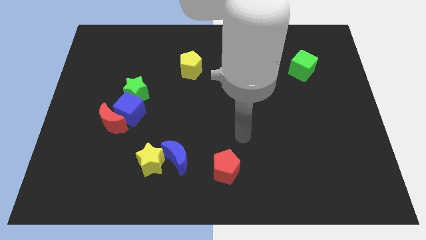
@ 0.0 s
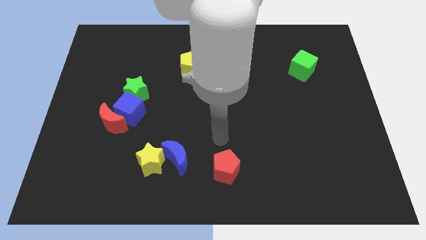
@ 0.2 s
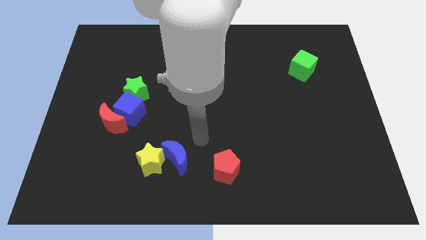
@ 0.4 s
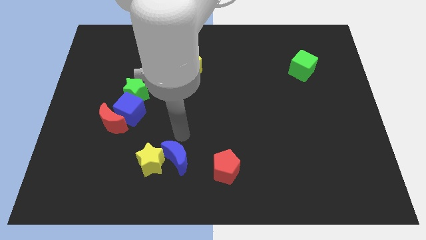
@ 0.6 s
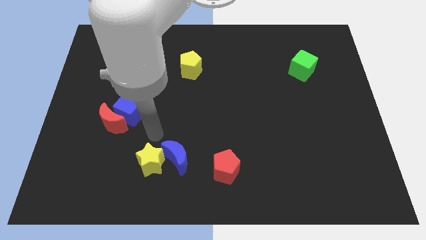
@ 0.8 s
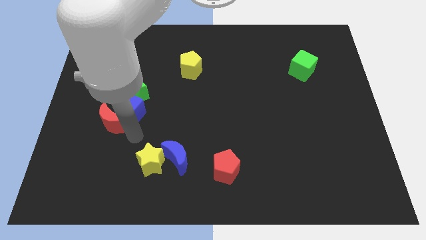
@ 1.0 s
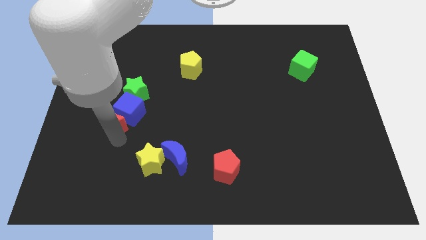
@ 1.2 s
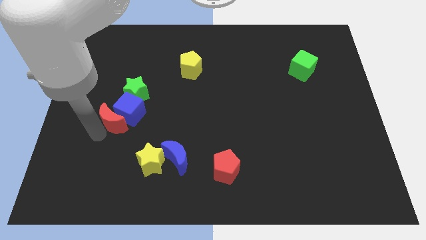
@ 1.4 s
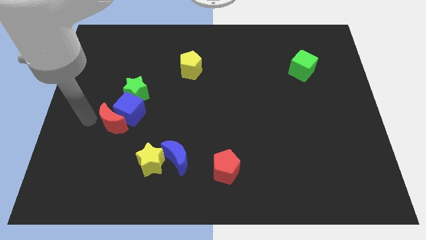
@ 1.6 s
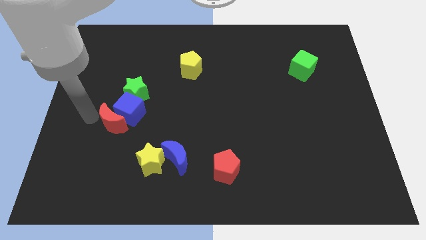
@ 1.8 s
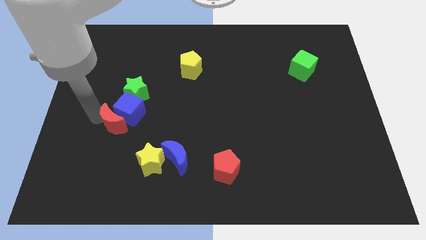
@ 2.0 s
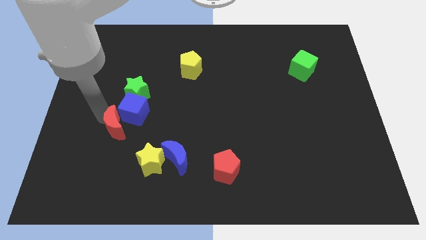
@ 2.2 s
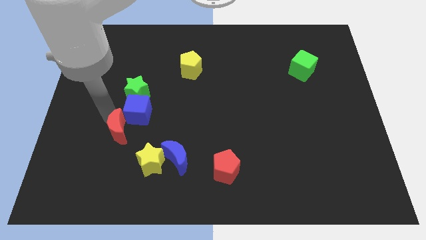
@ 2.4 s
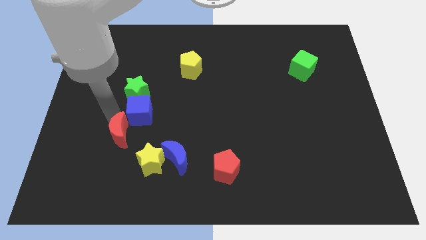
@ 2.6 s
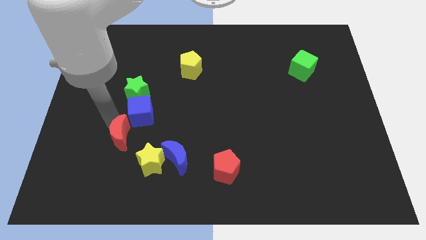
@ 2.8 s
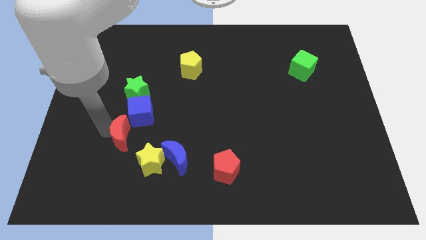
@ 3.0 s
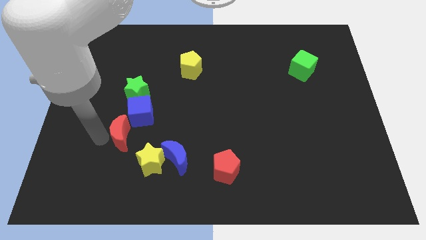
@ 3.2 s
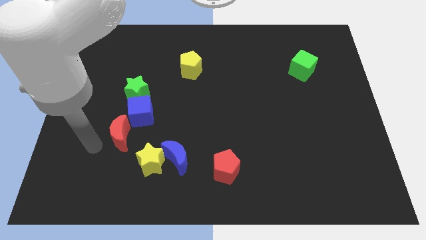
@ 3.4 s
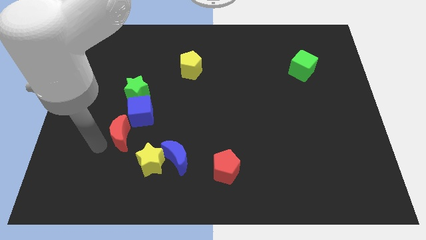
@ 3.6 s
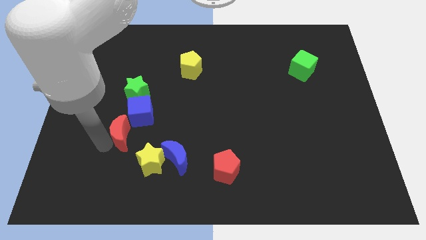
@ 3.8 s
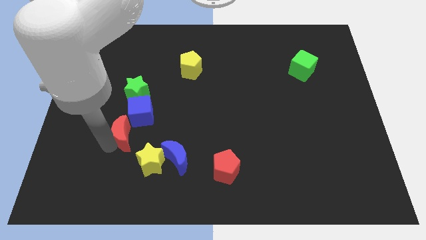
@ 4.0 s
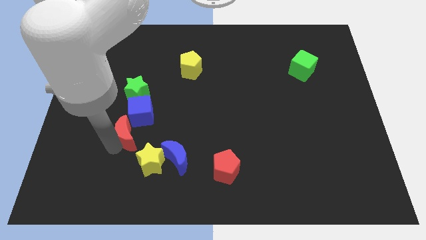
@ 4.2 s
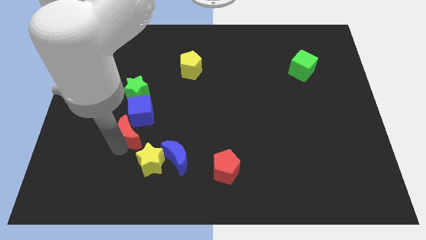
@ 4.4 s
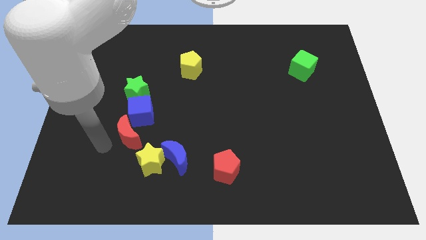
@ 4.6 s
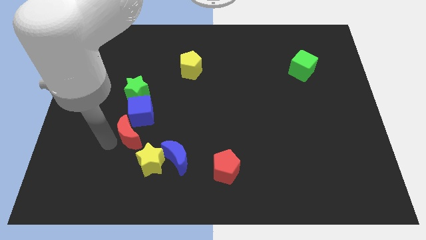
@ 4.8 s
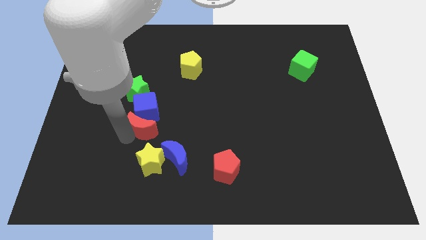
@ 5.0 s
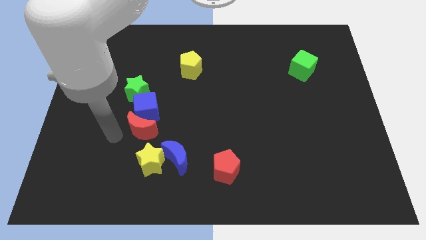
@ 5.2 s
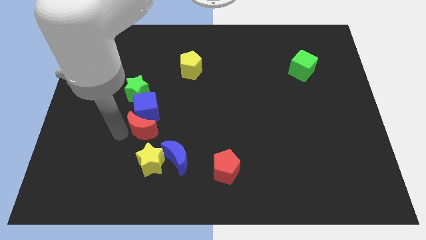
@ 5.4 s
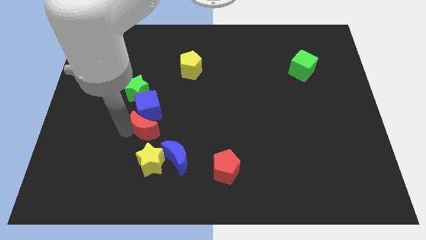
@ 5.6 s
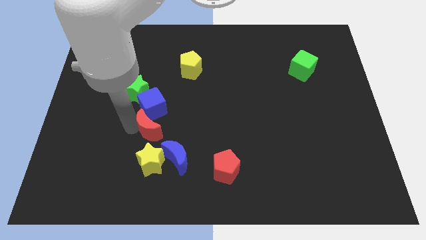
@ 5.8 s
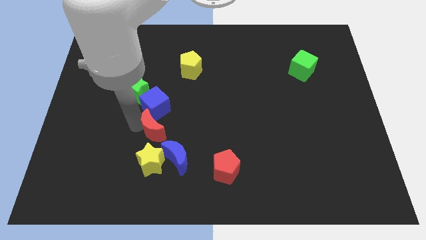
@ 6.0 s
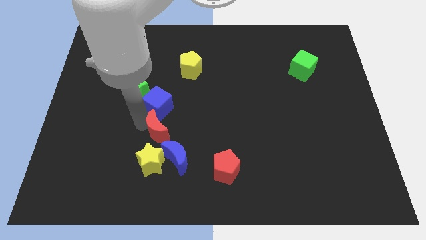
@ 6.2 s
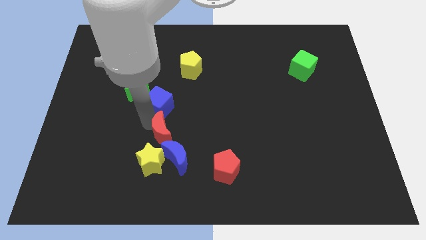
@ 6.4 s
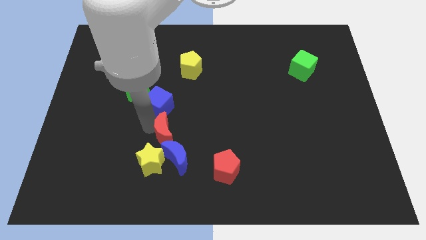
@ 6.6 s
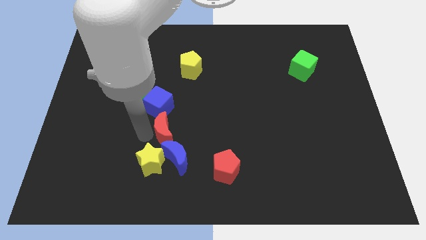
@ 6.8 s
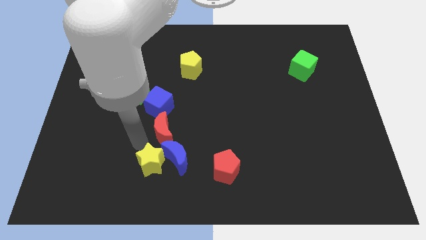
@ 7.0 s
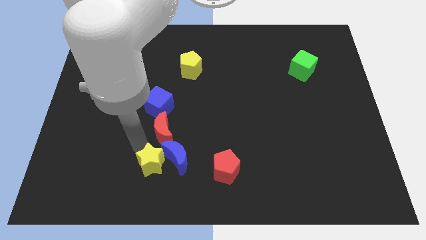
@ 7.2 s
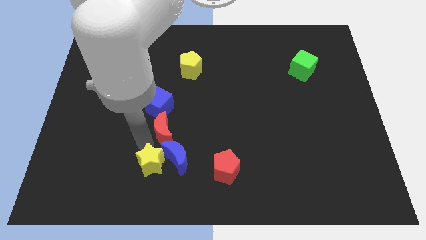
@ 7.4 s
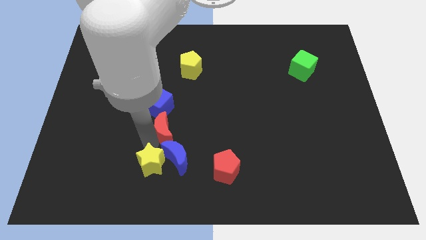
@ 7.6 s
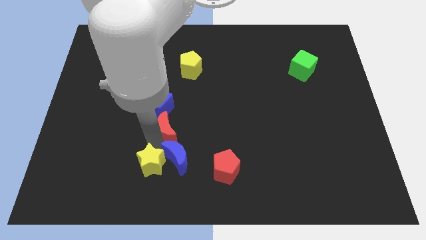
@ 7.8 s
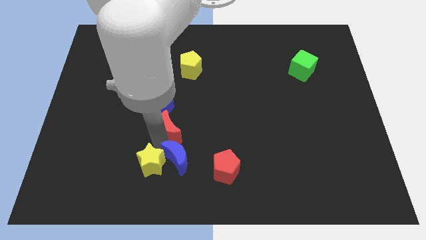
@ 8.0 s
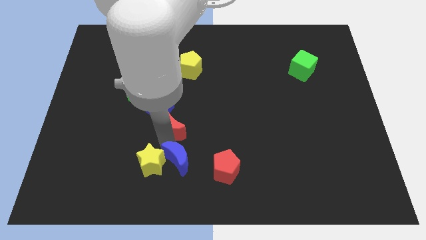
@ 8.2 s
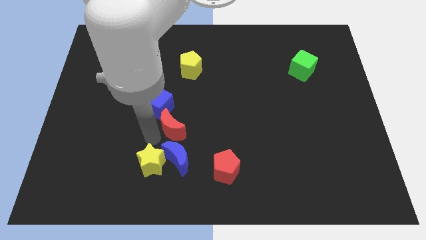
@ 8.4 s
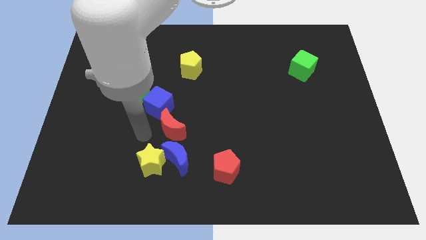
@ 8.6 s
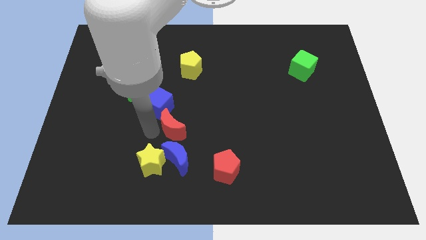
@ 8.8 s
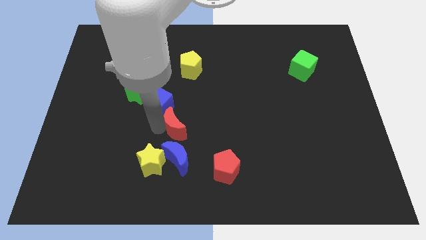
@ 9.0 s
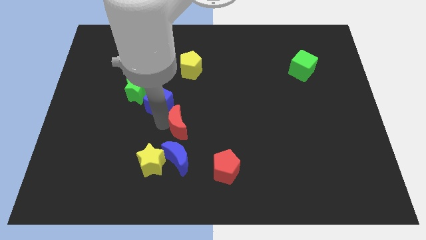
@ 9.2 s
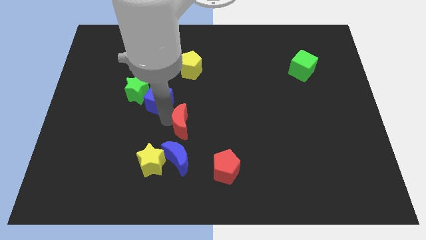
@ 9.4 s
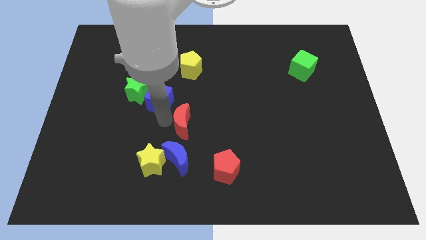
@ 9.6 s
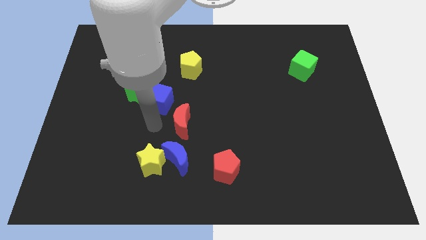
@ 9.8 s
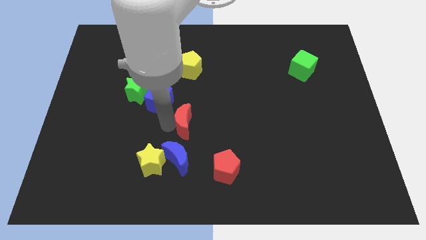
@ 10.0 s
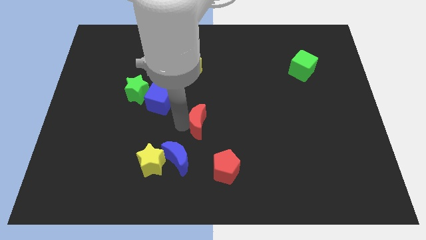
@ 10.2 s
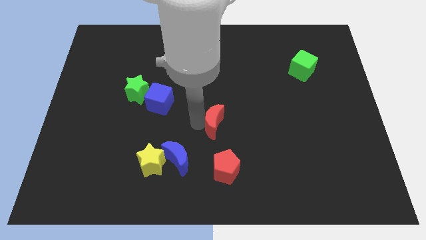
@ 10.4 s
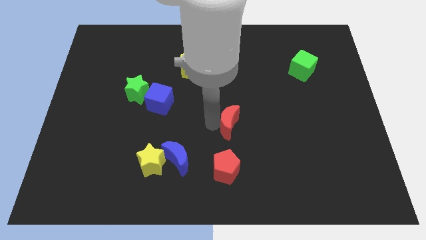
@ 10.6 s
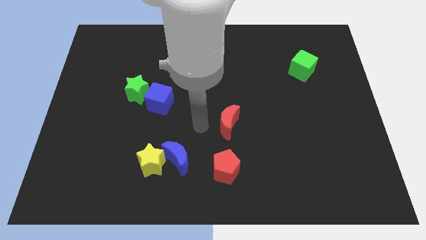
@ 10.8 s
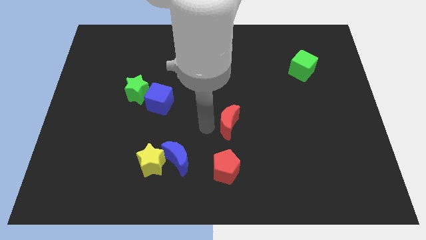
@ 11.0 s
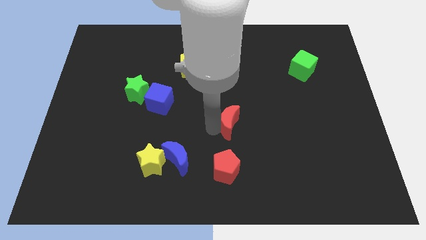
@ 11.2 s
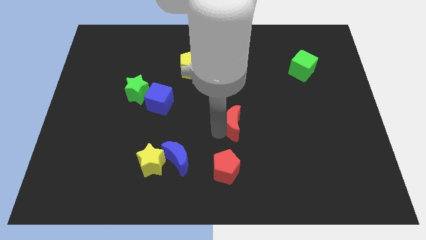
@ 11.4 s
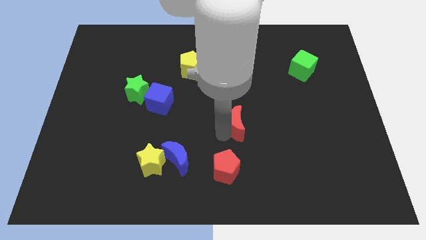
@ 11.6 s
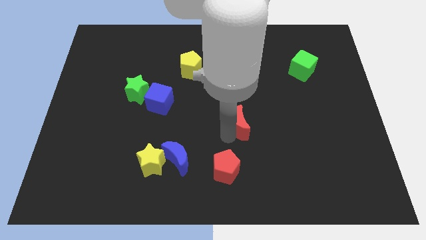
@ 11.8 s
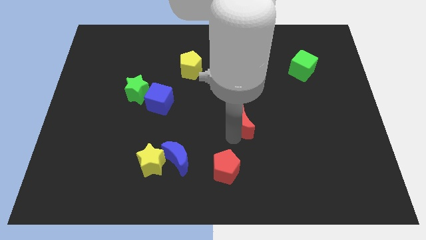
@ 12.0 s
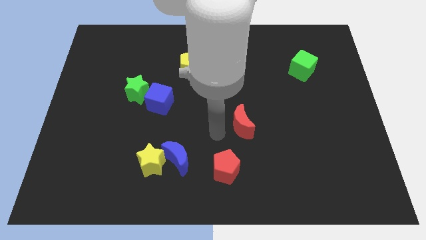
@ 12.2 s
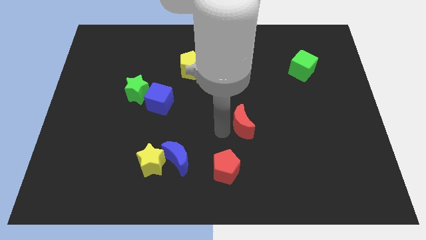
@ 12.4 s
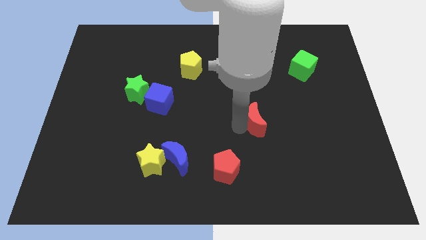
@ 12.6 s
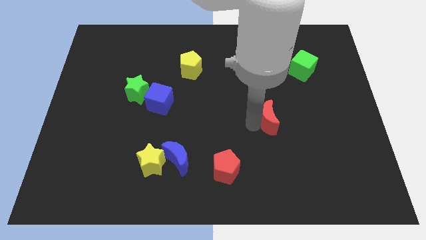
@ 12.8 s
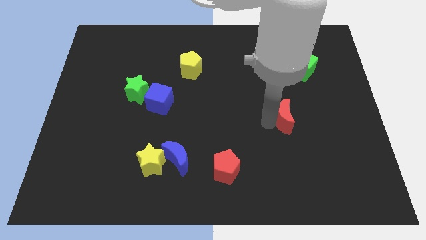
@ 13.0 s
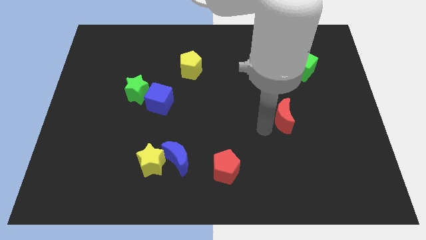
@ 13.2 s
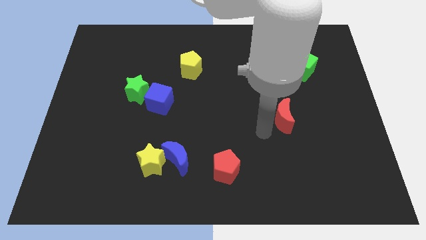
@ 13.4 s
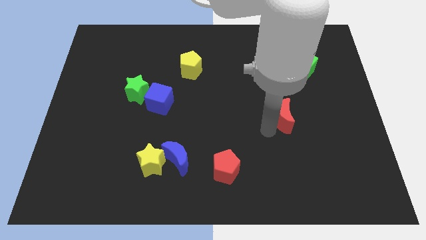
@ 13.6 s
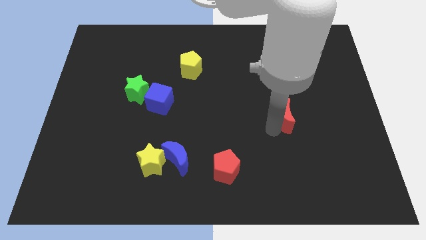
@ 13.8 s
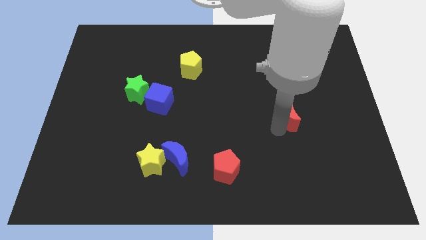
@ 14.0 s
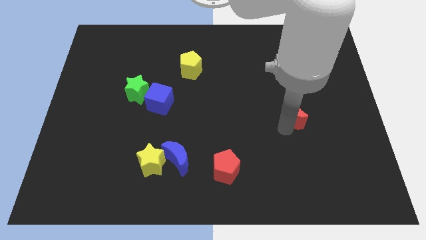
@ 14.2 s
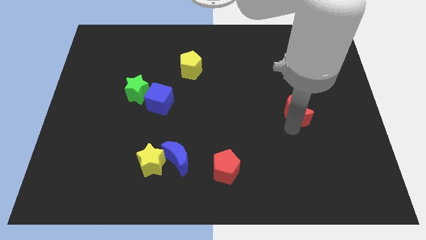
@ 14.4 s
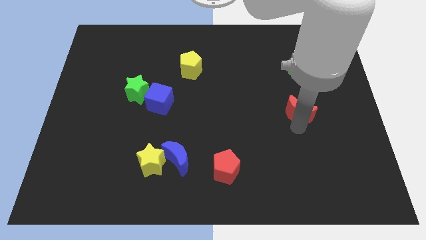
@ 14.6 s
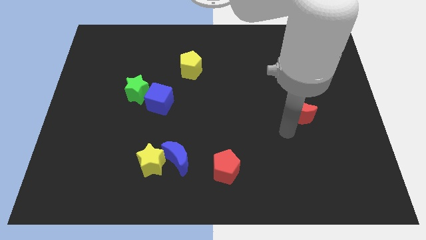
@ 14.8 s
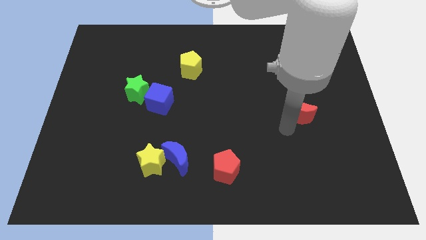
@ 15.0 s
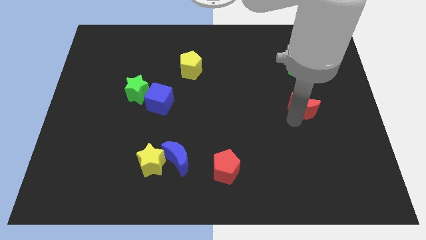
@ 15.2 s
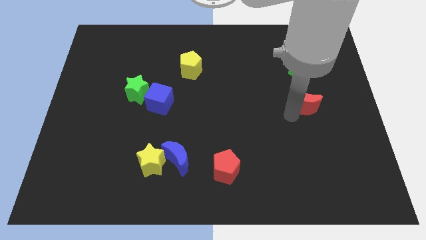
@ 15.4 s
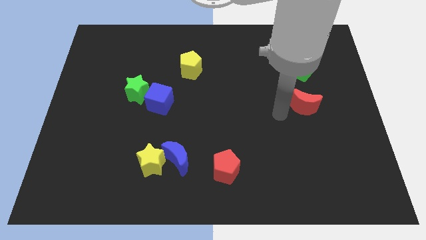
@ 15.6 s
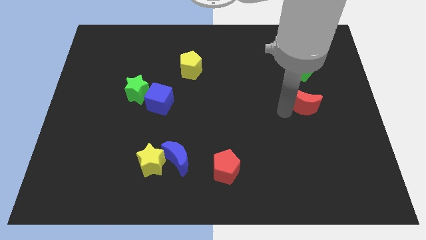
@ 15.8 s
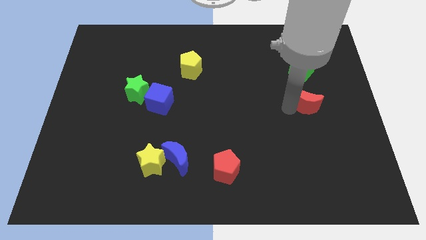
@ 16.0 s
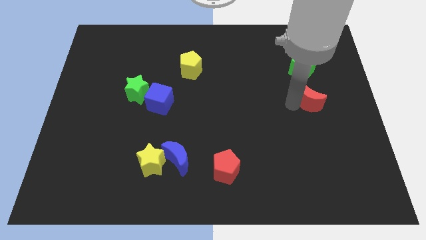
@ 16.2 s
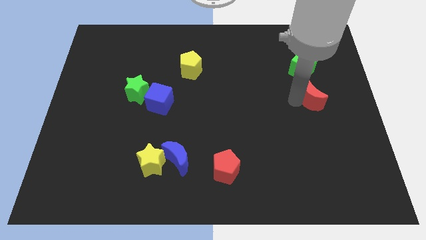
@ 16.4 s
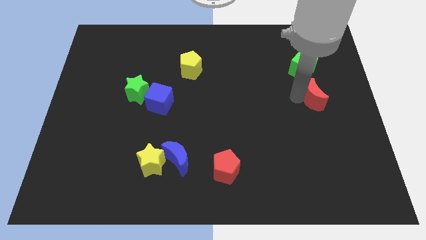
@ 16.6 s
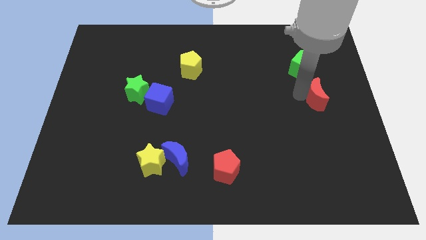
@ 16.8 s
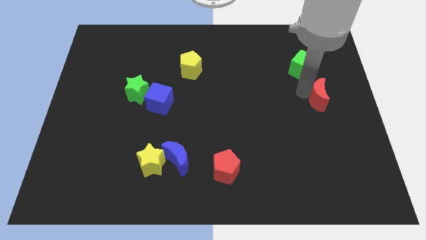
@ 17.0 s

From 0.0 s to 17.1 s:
push the red moon to the right side of the board
